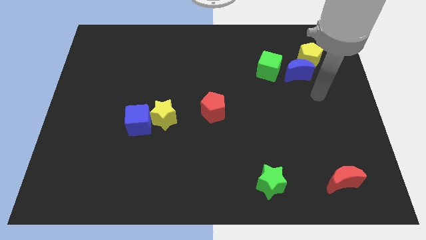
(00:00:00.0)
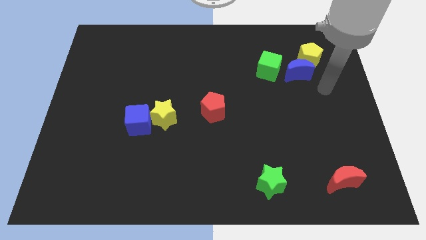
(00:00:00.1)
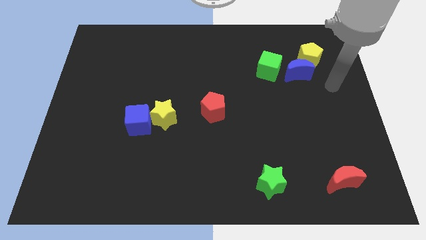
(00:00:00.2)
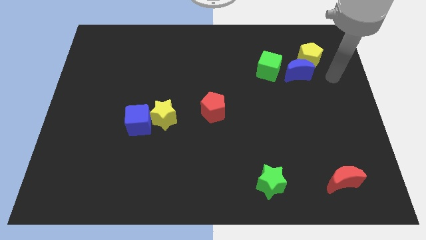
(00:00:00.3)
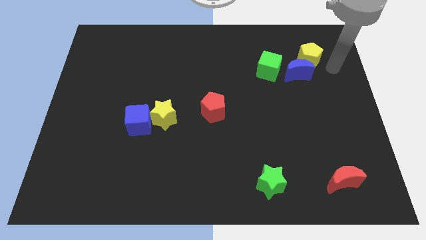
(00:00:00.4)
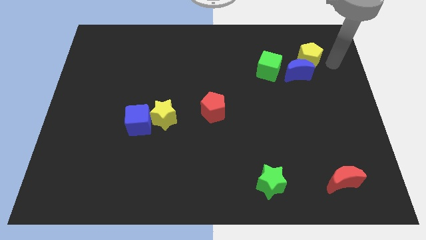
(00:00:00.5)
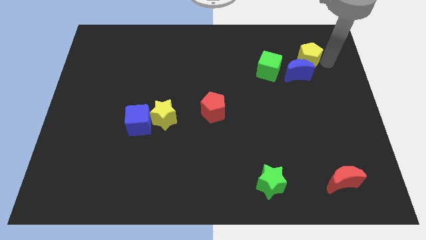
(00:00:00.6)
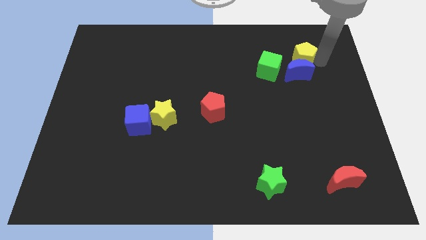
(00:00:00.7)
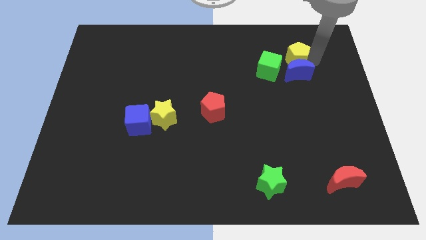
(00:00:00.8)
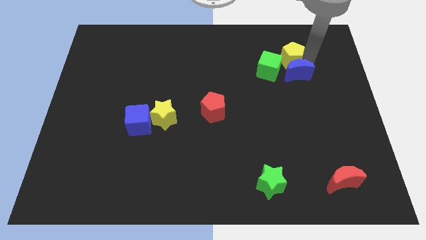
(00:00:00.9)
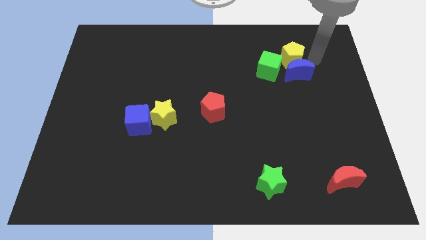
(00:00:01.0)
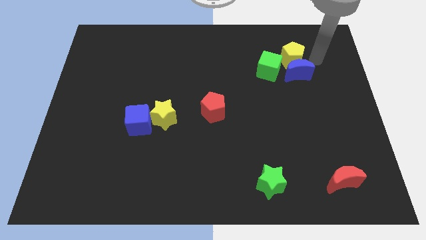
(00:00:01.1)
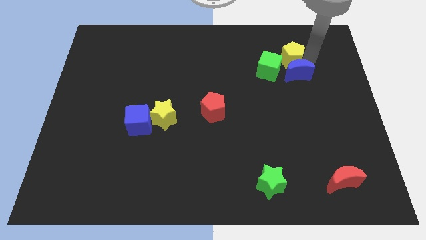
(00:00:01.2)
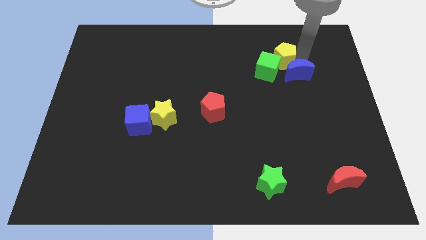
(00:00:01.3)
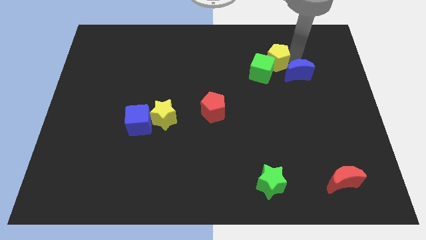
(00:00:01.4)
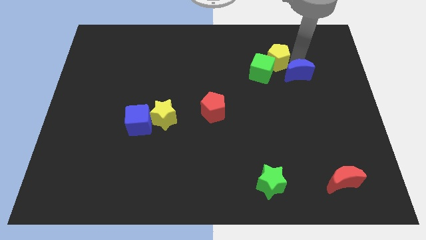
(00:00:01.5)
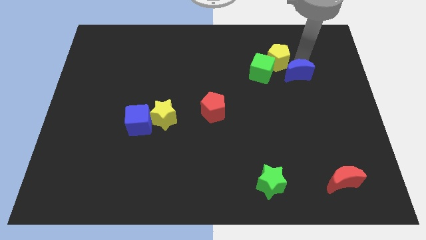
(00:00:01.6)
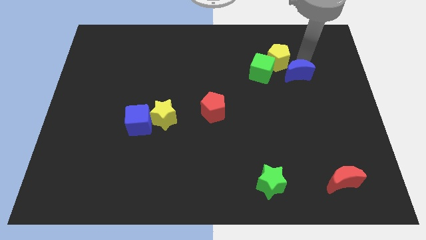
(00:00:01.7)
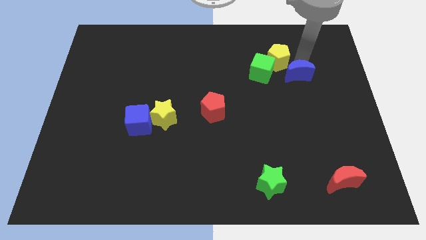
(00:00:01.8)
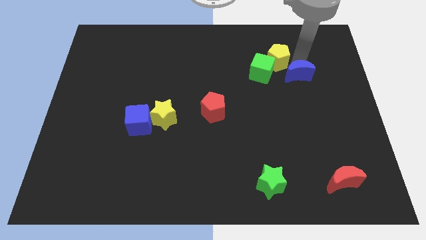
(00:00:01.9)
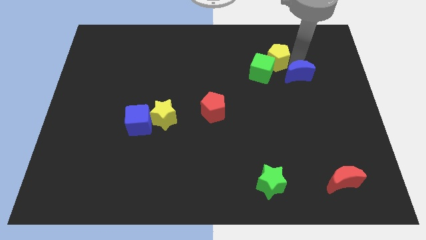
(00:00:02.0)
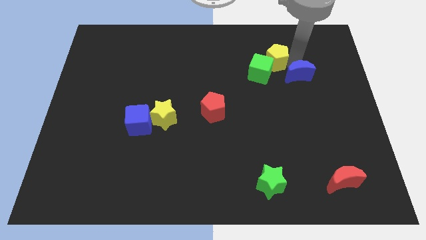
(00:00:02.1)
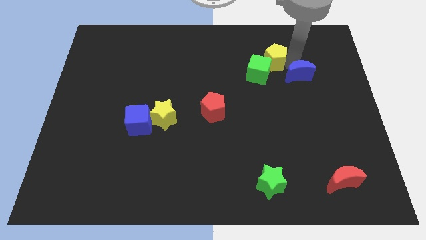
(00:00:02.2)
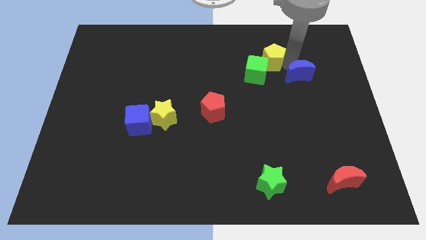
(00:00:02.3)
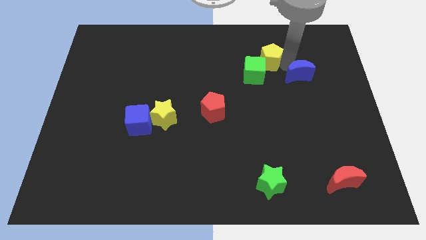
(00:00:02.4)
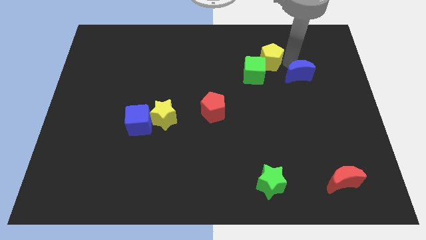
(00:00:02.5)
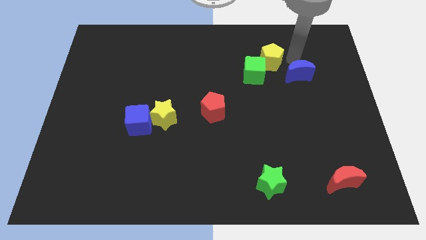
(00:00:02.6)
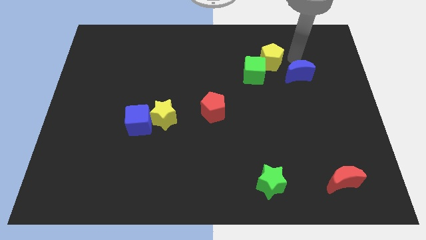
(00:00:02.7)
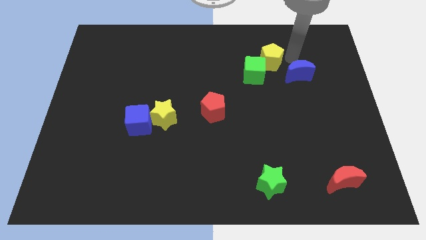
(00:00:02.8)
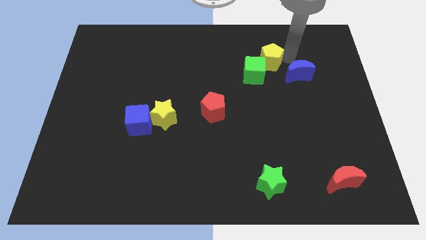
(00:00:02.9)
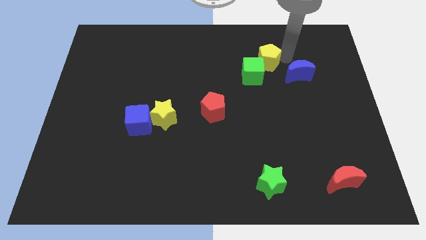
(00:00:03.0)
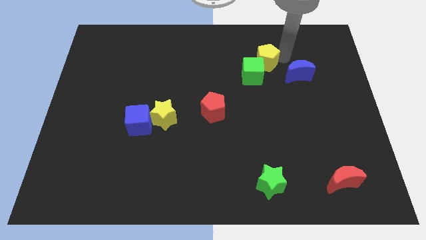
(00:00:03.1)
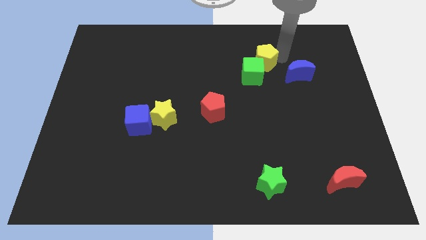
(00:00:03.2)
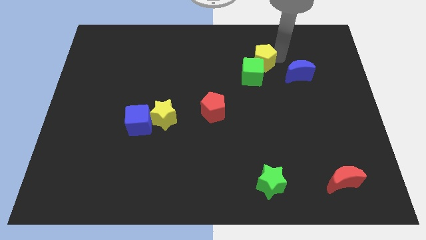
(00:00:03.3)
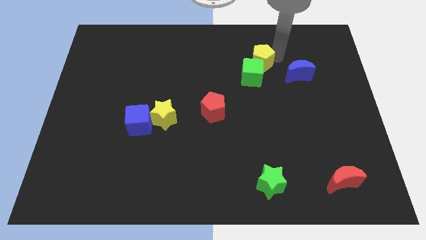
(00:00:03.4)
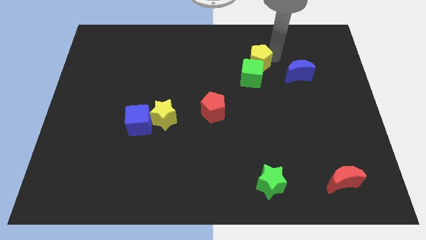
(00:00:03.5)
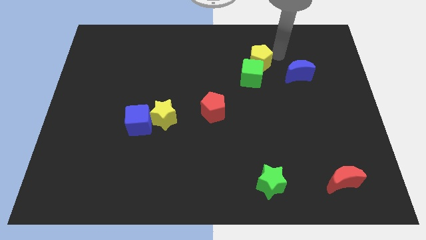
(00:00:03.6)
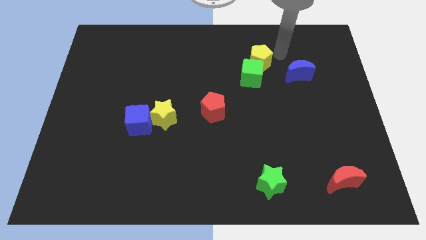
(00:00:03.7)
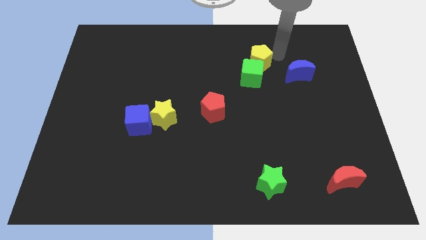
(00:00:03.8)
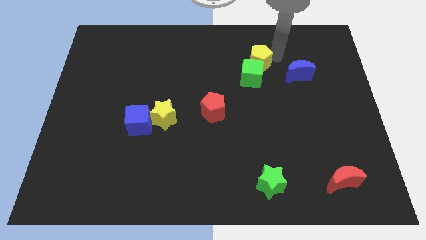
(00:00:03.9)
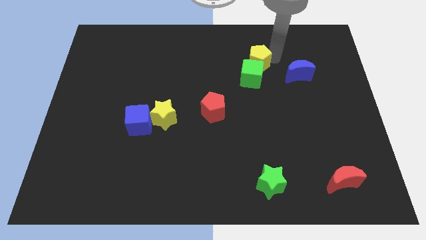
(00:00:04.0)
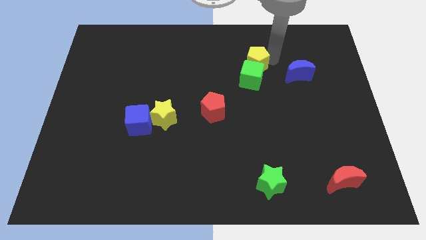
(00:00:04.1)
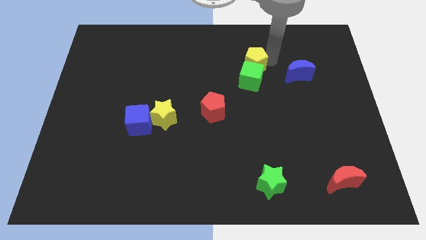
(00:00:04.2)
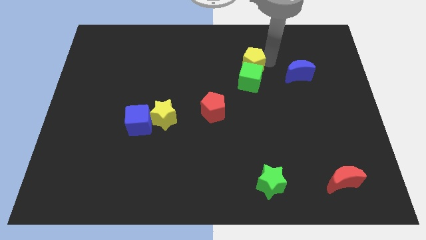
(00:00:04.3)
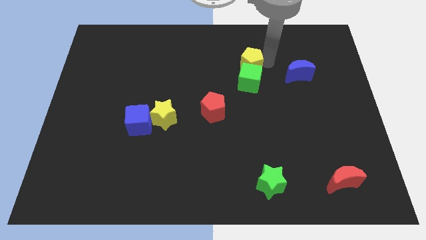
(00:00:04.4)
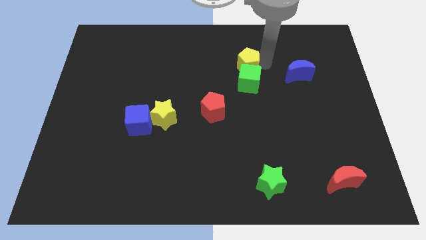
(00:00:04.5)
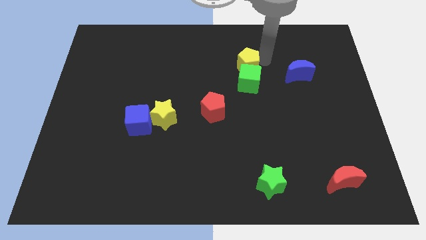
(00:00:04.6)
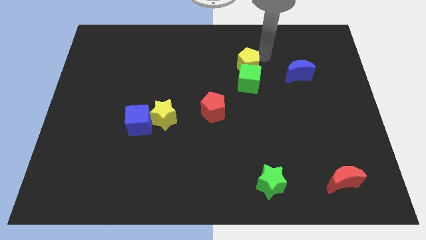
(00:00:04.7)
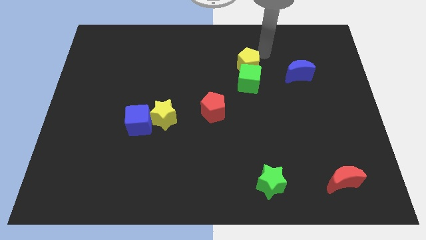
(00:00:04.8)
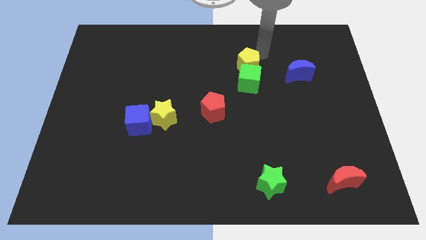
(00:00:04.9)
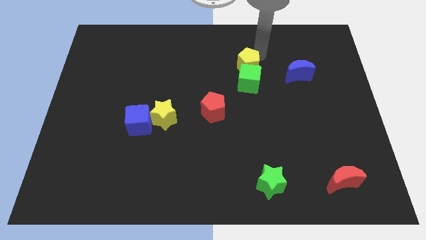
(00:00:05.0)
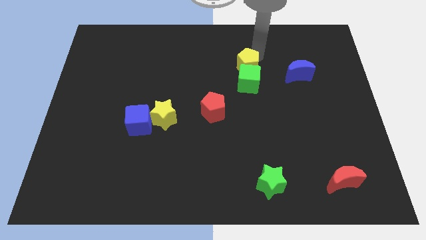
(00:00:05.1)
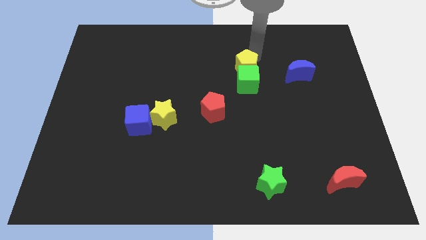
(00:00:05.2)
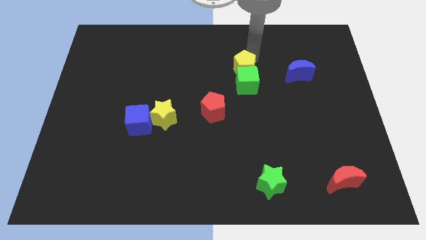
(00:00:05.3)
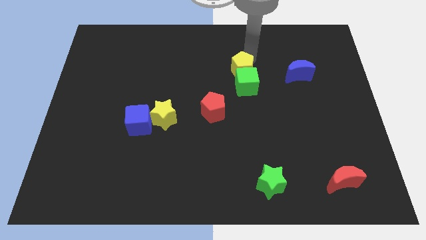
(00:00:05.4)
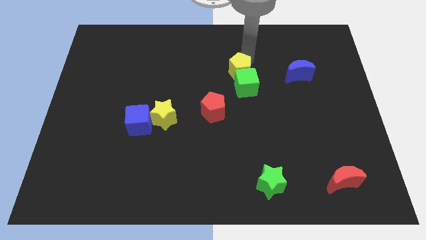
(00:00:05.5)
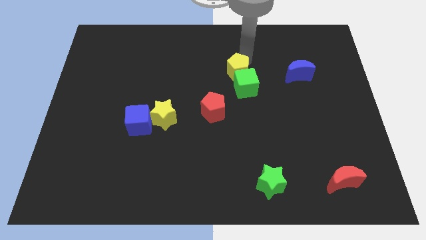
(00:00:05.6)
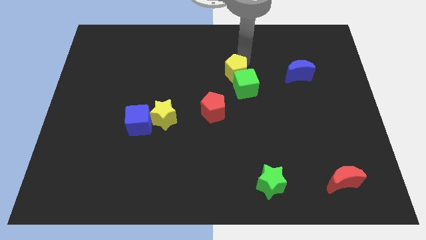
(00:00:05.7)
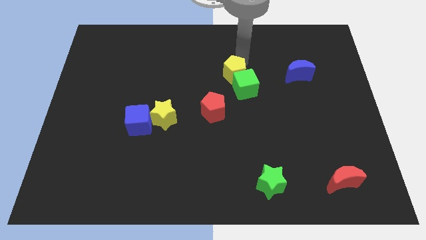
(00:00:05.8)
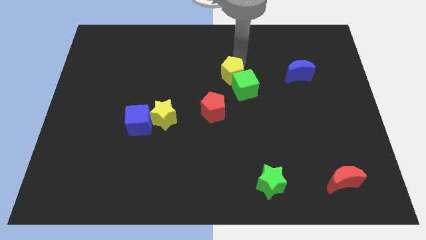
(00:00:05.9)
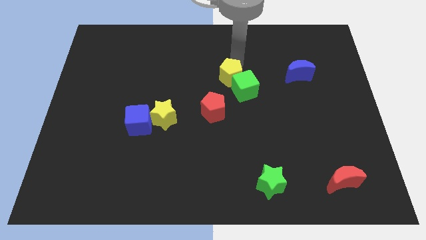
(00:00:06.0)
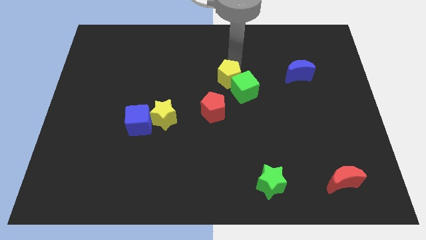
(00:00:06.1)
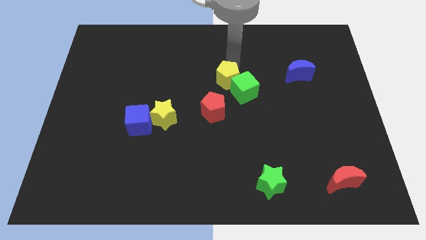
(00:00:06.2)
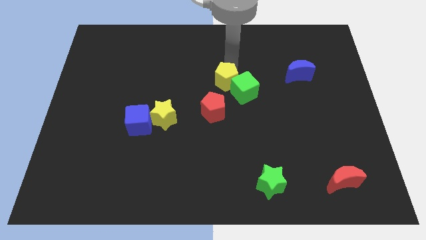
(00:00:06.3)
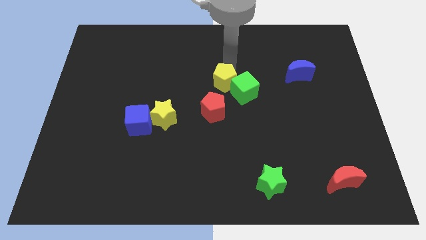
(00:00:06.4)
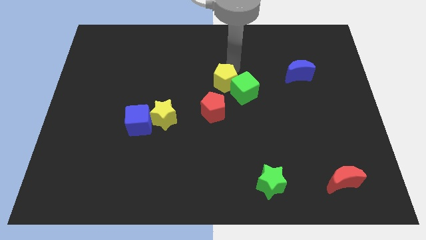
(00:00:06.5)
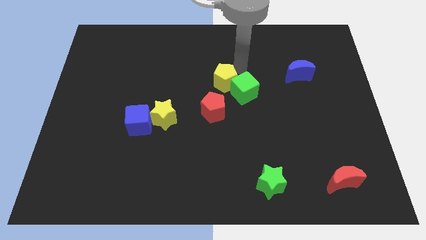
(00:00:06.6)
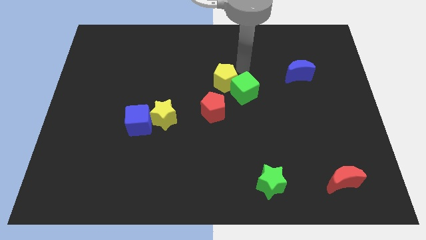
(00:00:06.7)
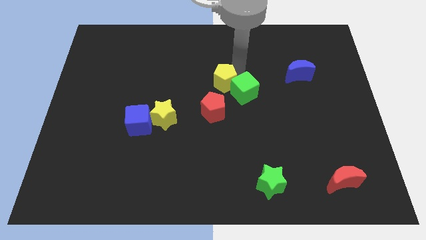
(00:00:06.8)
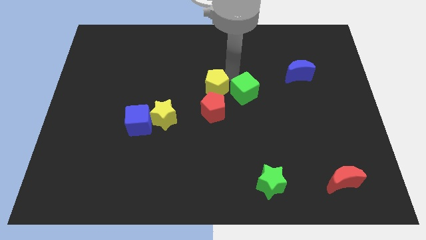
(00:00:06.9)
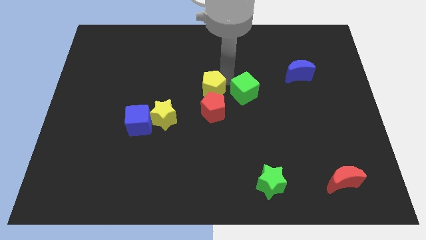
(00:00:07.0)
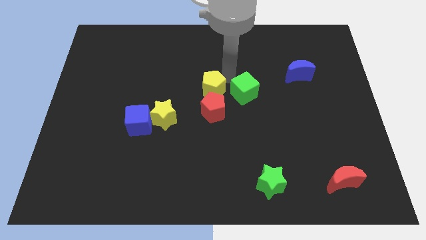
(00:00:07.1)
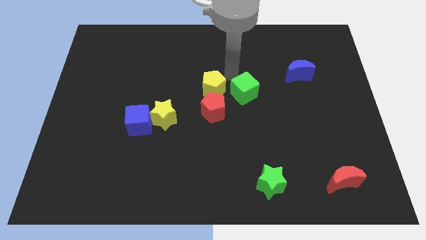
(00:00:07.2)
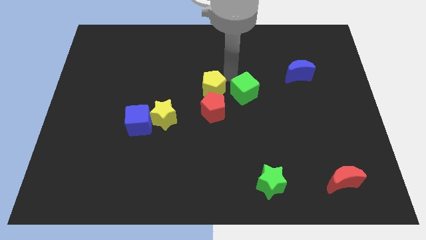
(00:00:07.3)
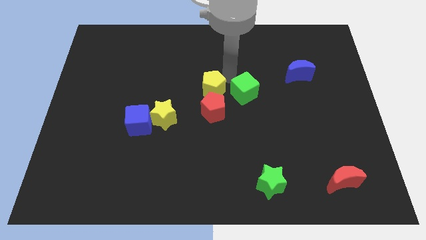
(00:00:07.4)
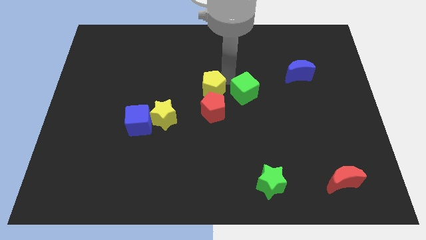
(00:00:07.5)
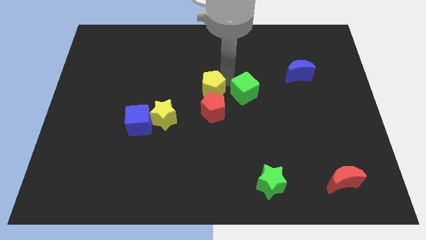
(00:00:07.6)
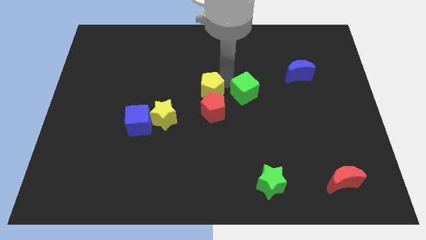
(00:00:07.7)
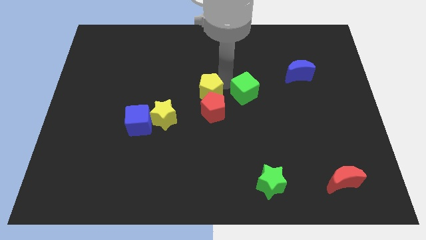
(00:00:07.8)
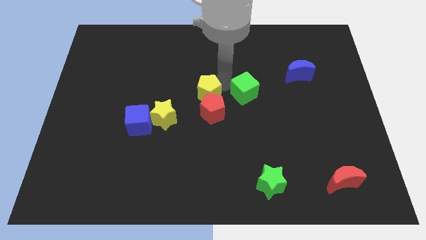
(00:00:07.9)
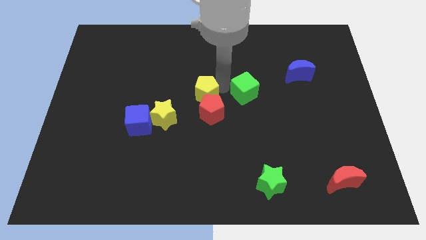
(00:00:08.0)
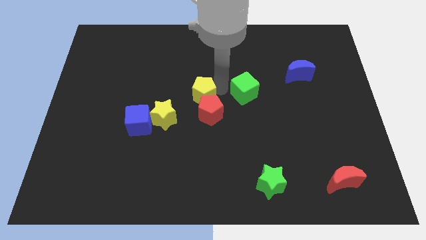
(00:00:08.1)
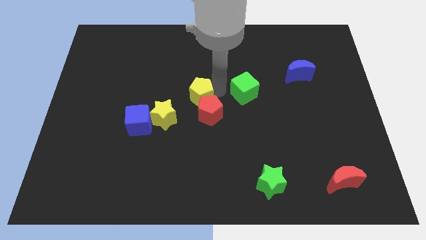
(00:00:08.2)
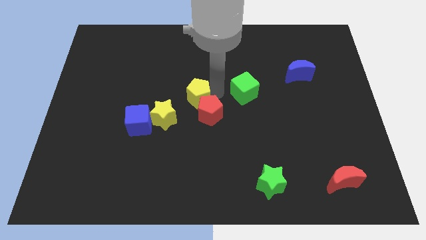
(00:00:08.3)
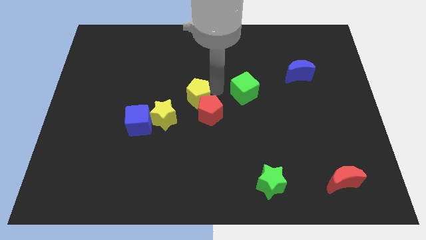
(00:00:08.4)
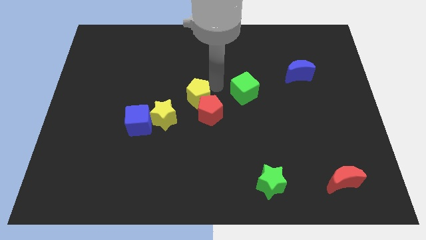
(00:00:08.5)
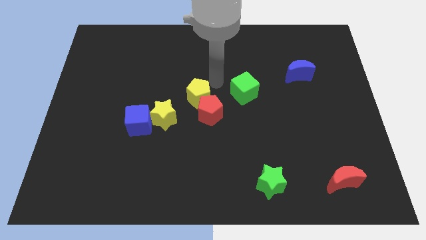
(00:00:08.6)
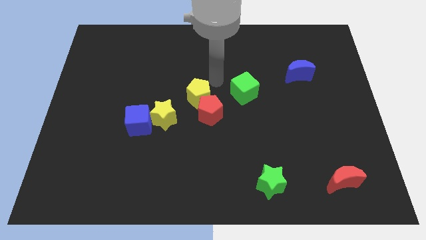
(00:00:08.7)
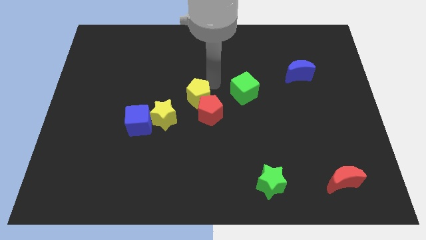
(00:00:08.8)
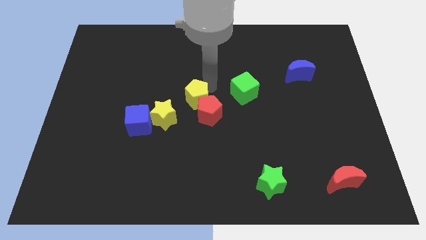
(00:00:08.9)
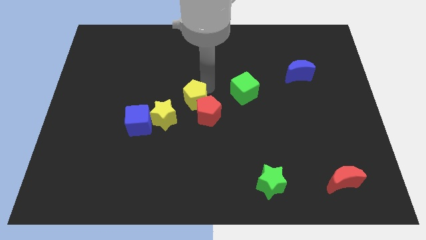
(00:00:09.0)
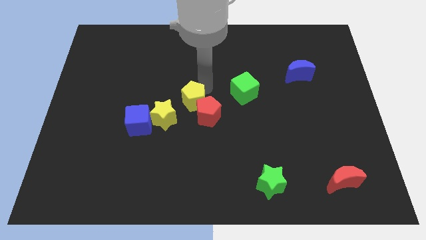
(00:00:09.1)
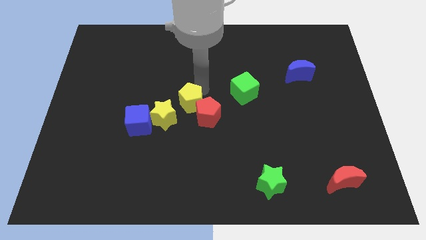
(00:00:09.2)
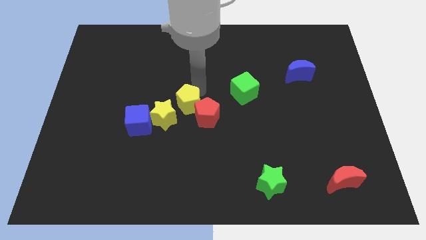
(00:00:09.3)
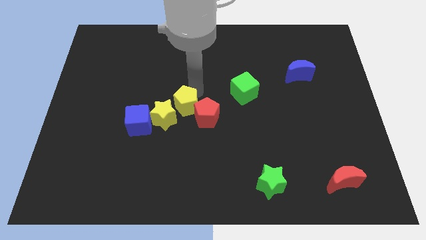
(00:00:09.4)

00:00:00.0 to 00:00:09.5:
slide the yellow pentagon next to the yellow star
